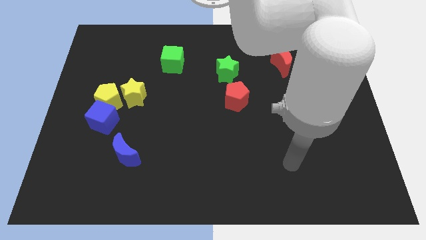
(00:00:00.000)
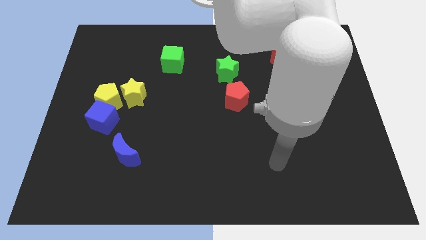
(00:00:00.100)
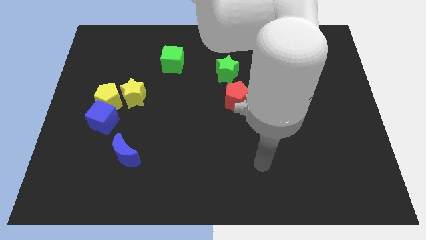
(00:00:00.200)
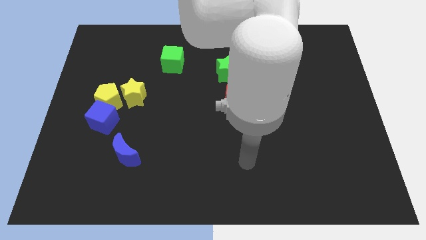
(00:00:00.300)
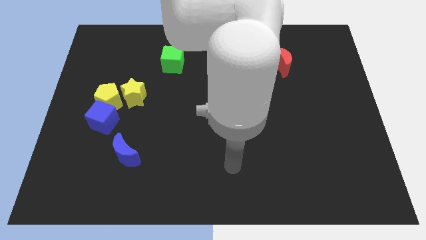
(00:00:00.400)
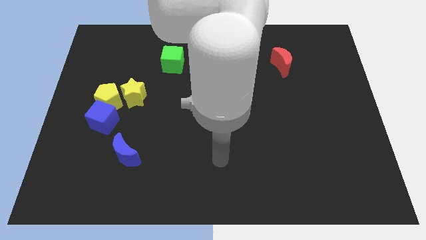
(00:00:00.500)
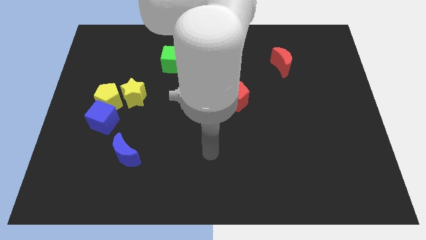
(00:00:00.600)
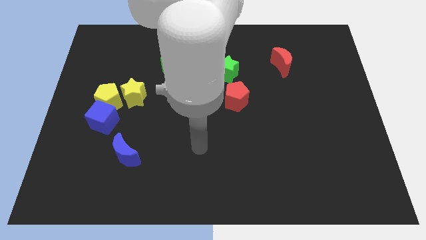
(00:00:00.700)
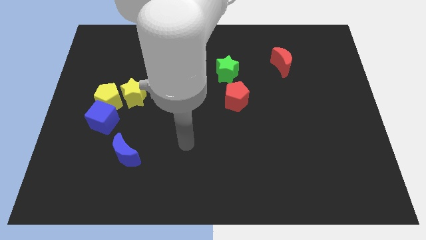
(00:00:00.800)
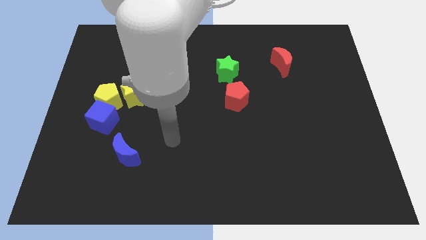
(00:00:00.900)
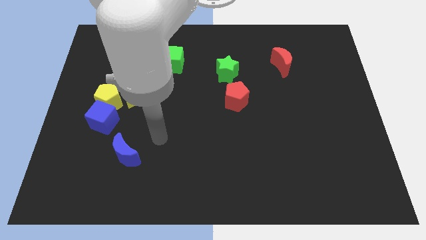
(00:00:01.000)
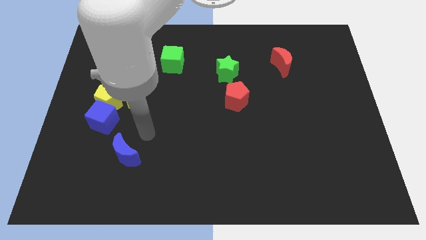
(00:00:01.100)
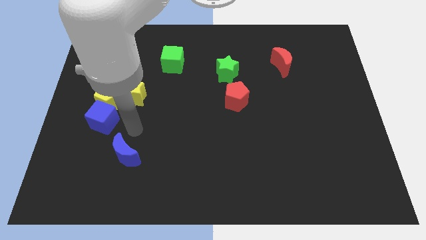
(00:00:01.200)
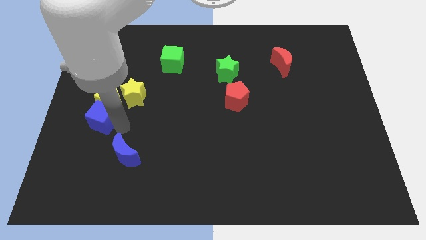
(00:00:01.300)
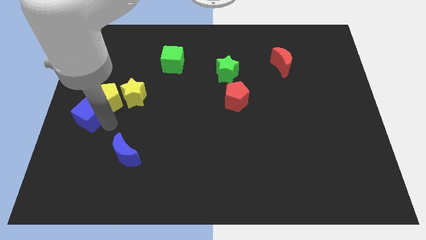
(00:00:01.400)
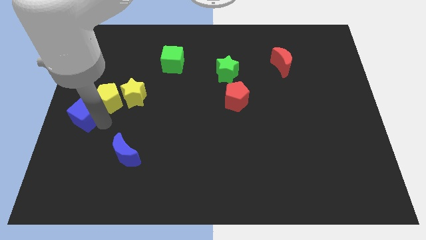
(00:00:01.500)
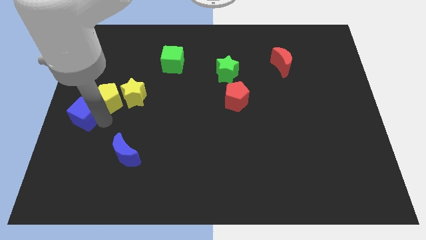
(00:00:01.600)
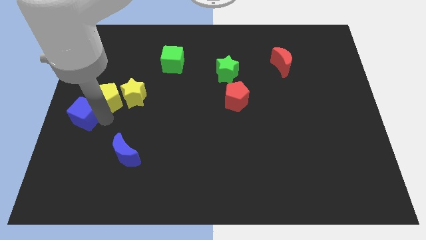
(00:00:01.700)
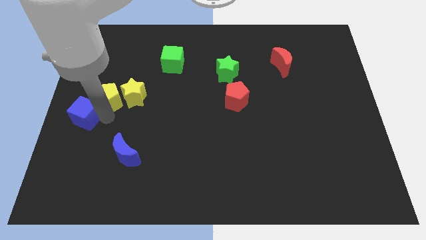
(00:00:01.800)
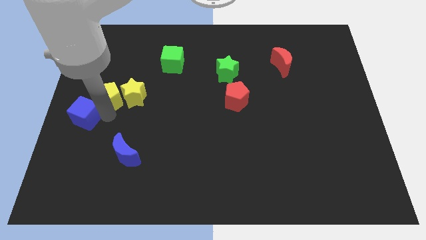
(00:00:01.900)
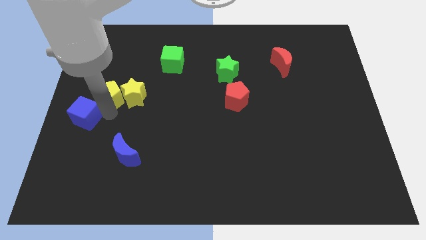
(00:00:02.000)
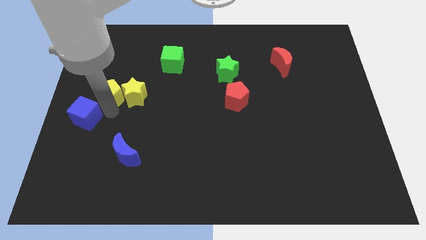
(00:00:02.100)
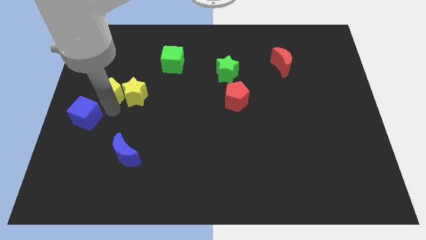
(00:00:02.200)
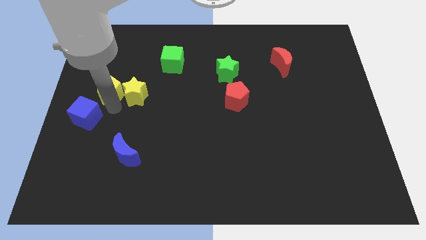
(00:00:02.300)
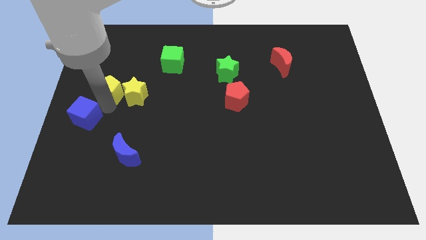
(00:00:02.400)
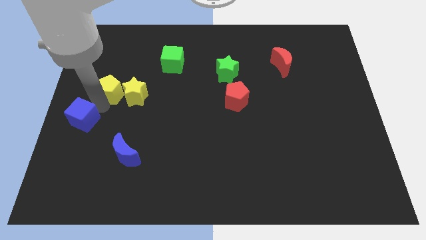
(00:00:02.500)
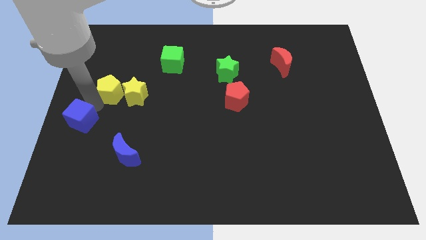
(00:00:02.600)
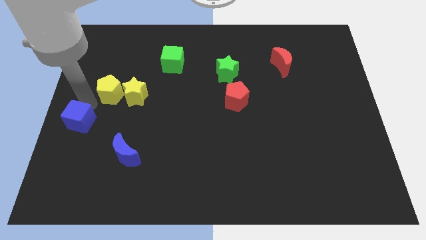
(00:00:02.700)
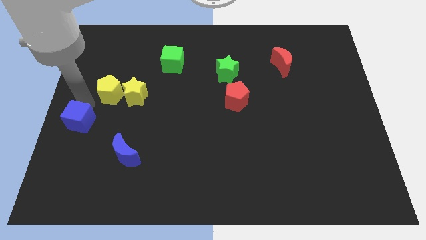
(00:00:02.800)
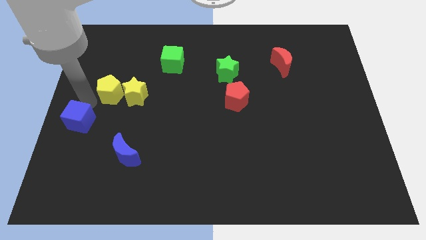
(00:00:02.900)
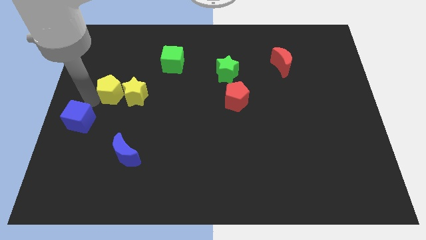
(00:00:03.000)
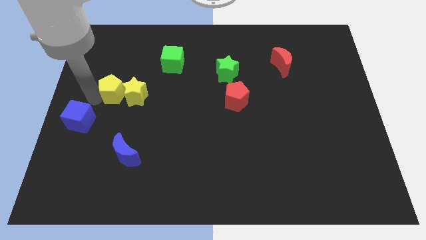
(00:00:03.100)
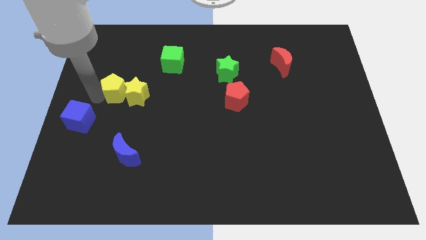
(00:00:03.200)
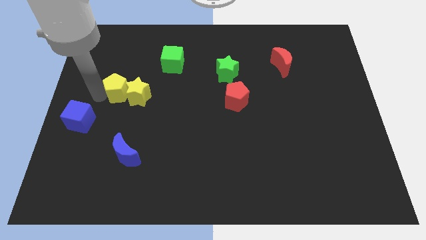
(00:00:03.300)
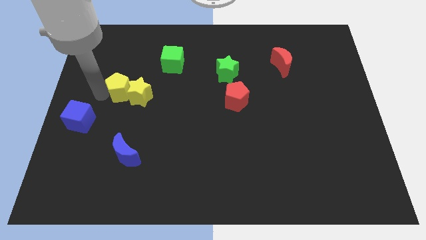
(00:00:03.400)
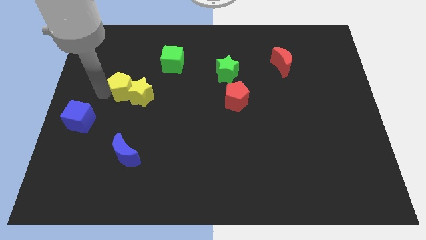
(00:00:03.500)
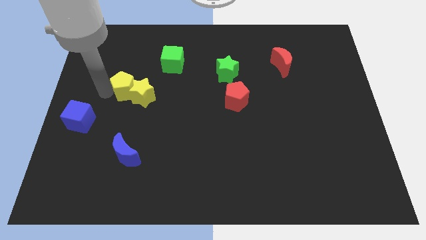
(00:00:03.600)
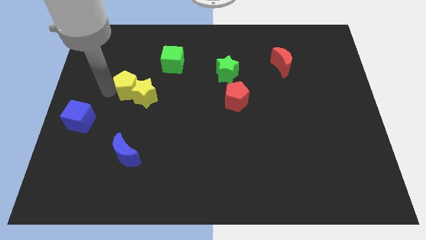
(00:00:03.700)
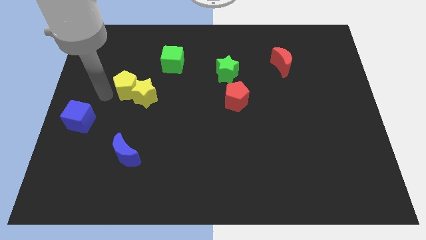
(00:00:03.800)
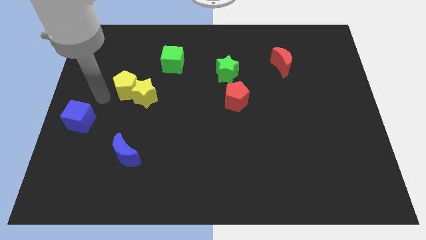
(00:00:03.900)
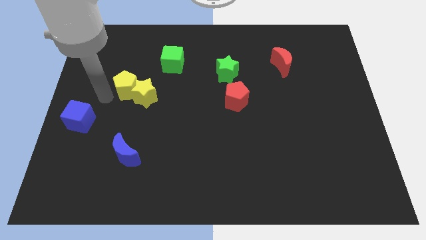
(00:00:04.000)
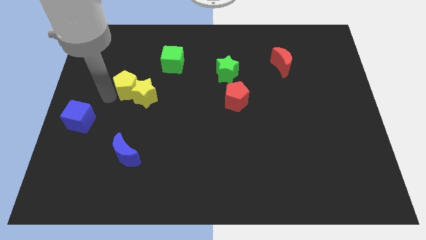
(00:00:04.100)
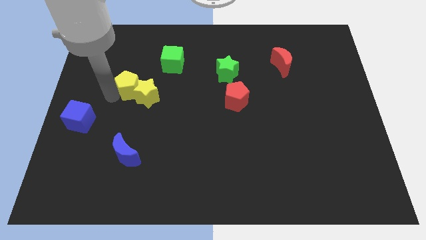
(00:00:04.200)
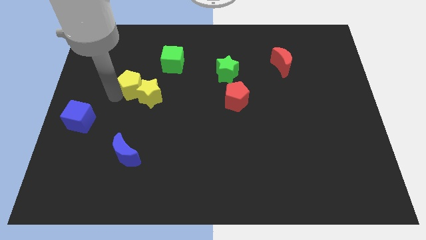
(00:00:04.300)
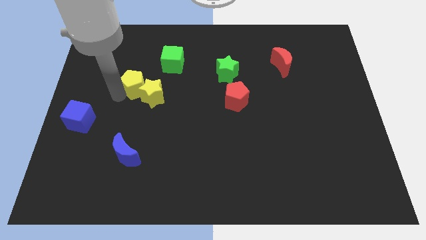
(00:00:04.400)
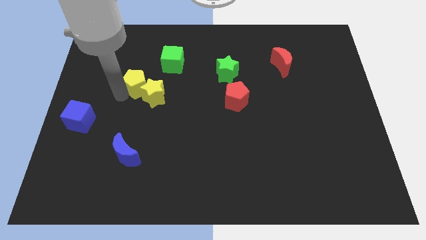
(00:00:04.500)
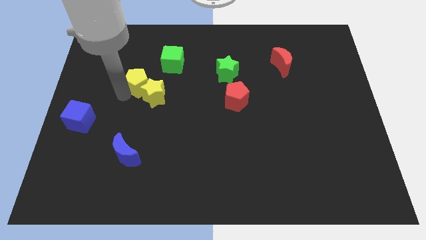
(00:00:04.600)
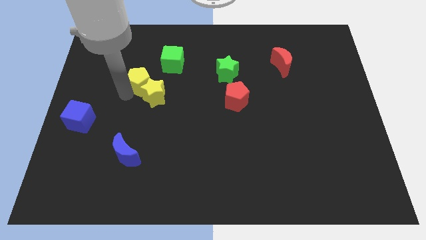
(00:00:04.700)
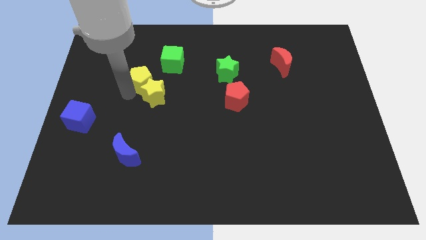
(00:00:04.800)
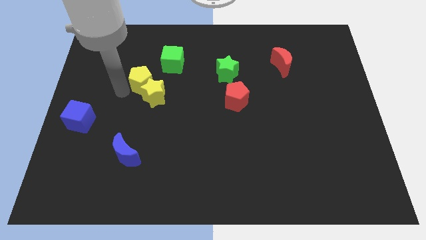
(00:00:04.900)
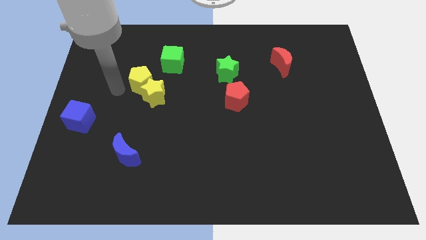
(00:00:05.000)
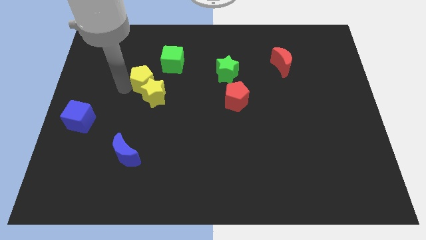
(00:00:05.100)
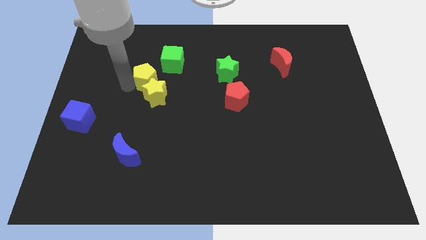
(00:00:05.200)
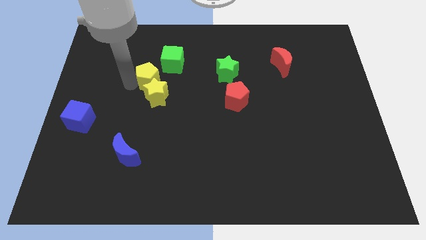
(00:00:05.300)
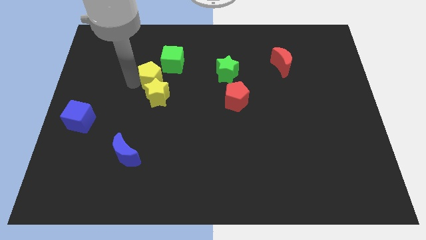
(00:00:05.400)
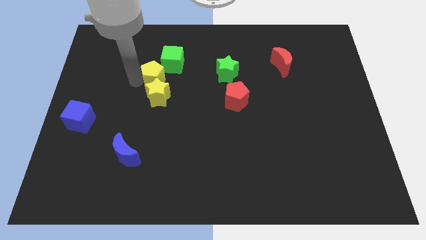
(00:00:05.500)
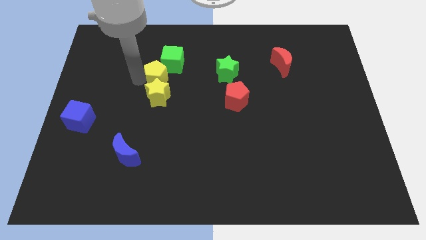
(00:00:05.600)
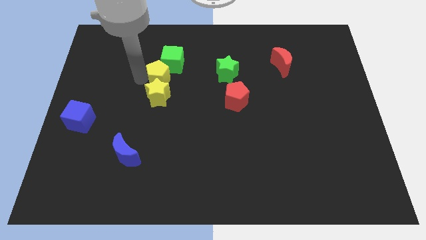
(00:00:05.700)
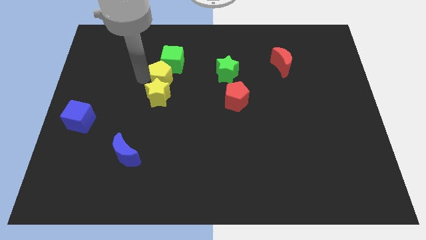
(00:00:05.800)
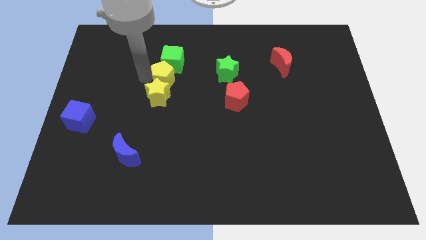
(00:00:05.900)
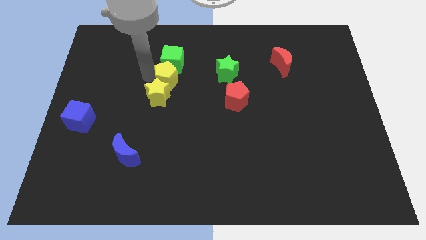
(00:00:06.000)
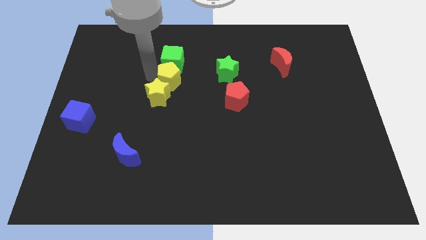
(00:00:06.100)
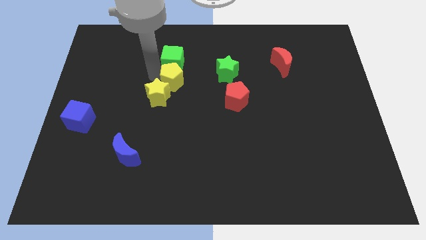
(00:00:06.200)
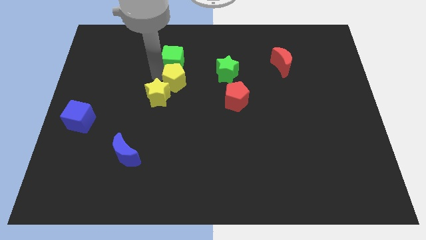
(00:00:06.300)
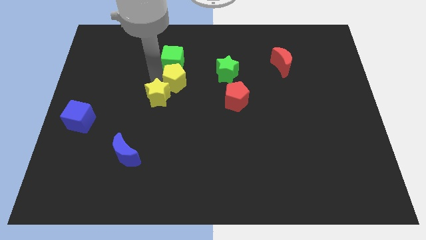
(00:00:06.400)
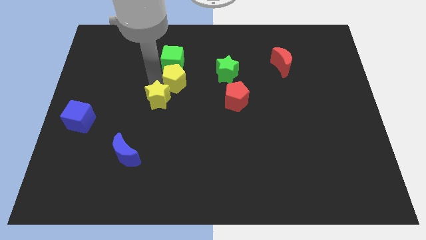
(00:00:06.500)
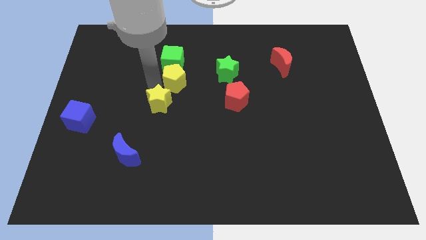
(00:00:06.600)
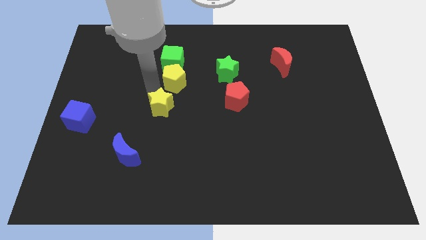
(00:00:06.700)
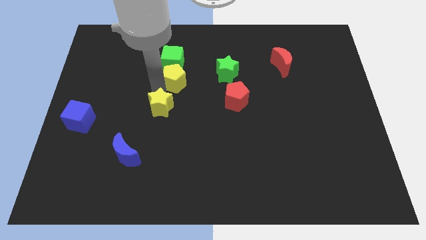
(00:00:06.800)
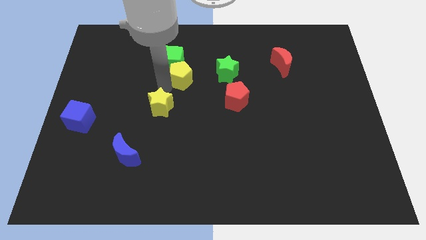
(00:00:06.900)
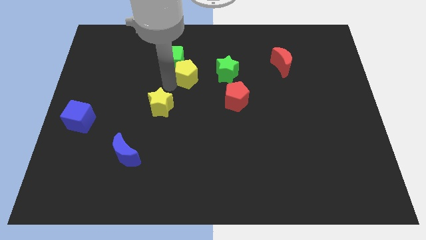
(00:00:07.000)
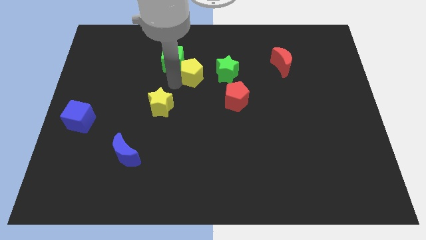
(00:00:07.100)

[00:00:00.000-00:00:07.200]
push the yellow pentagon right of the green cube

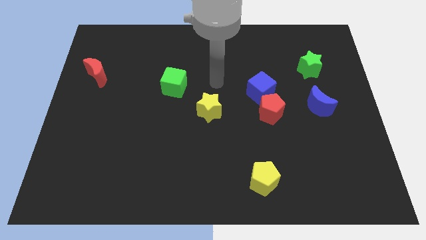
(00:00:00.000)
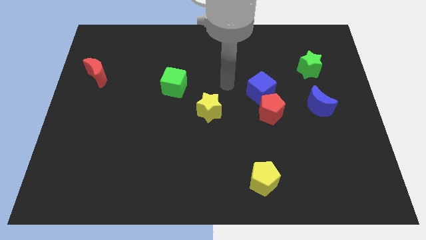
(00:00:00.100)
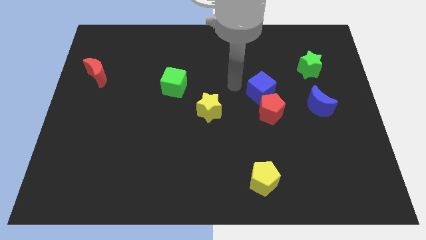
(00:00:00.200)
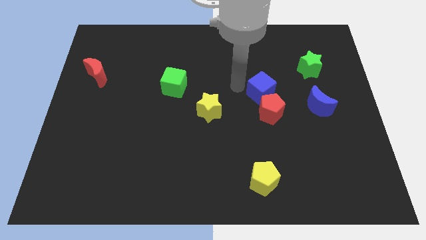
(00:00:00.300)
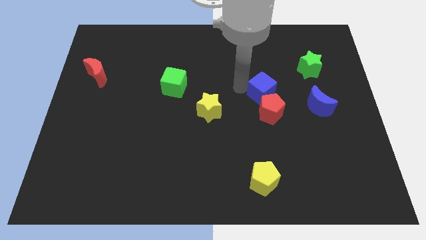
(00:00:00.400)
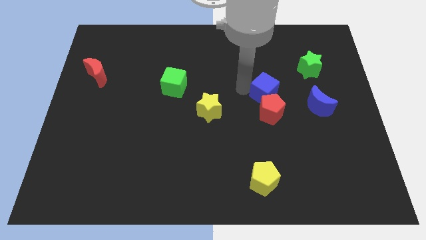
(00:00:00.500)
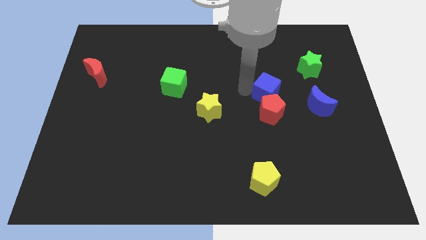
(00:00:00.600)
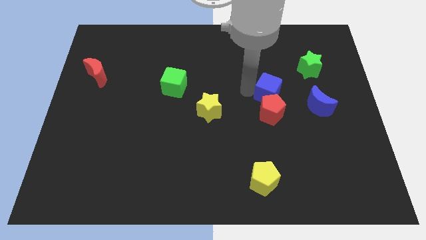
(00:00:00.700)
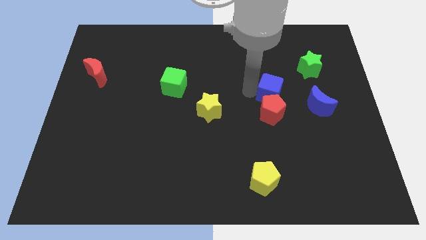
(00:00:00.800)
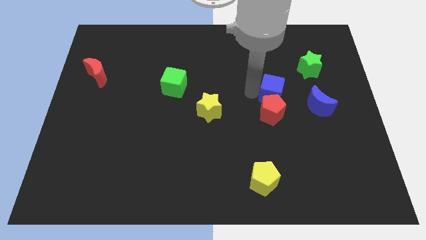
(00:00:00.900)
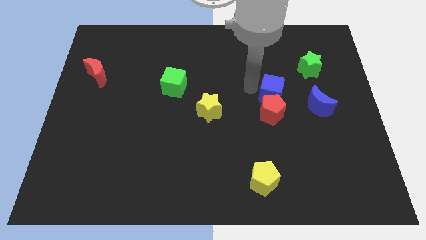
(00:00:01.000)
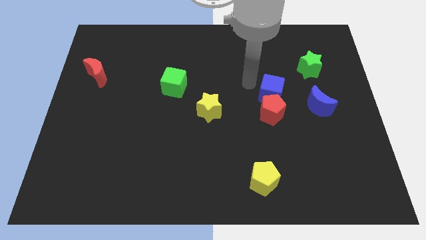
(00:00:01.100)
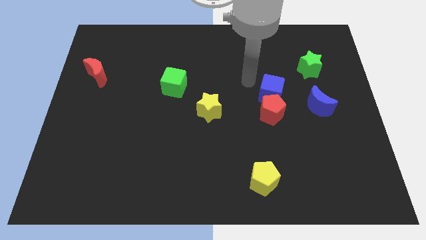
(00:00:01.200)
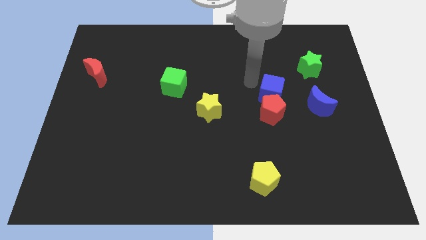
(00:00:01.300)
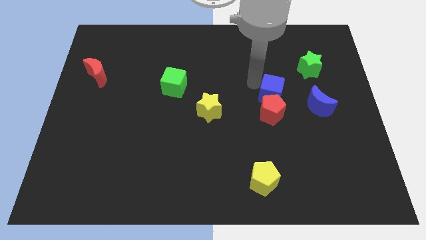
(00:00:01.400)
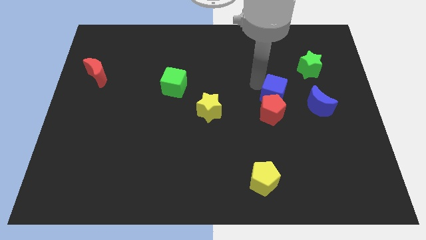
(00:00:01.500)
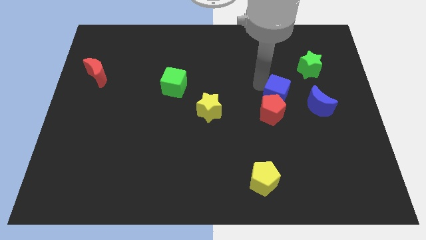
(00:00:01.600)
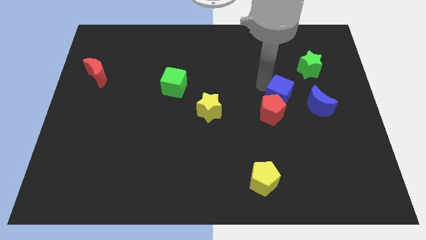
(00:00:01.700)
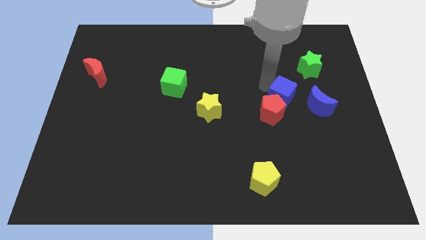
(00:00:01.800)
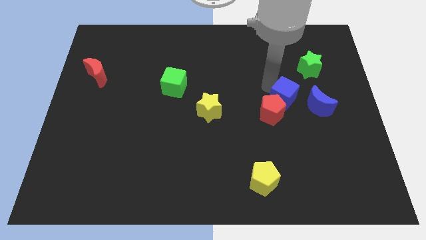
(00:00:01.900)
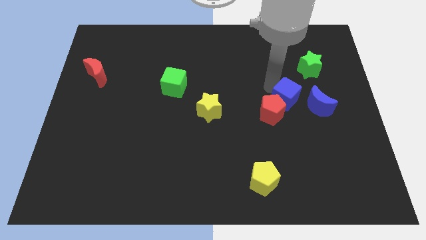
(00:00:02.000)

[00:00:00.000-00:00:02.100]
slide the blue cube just right of the red pentagon
